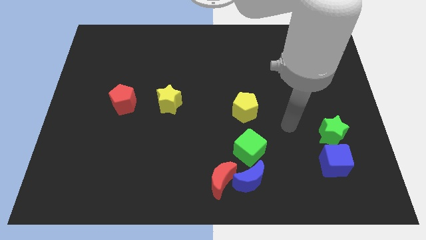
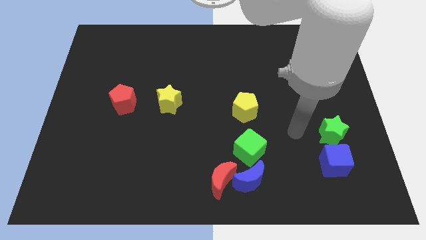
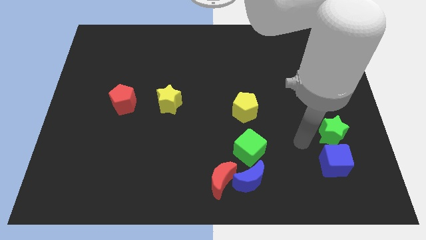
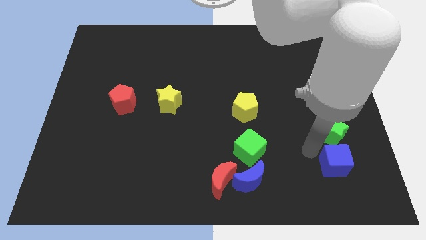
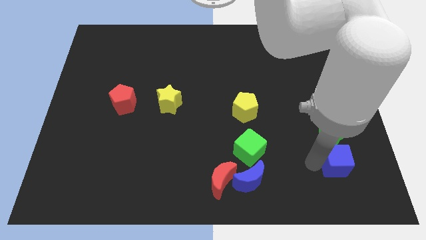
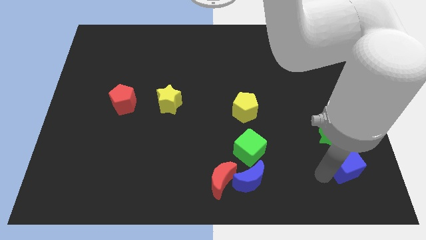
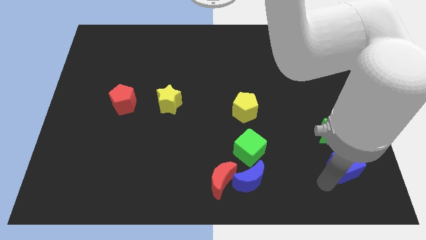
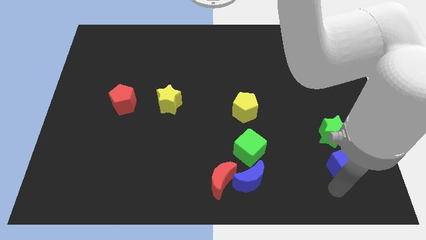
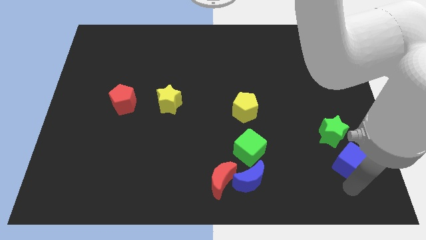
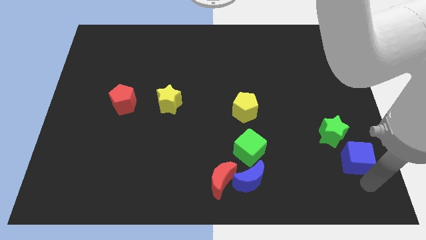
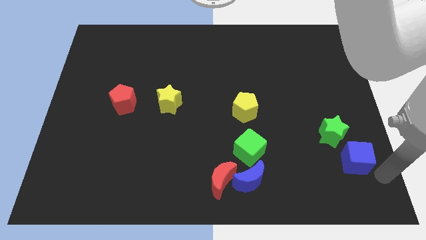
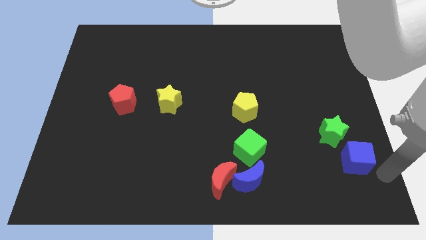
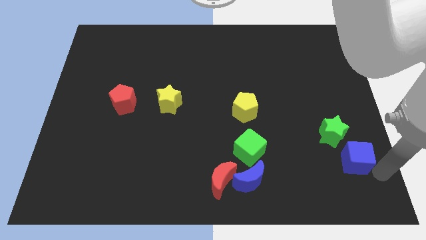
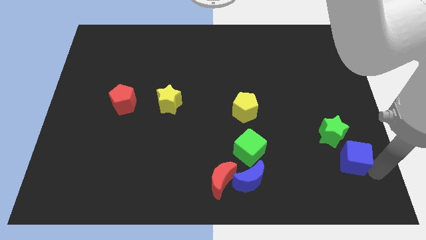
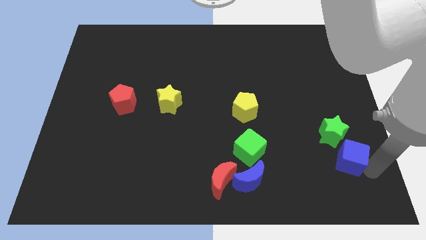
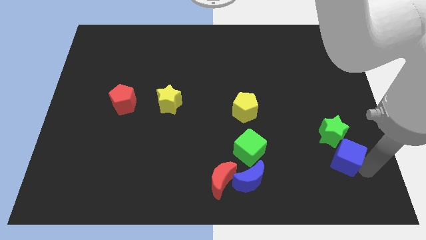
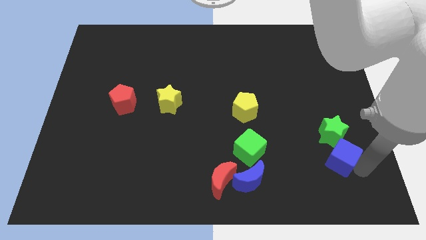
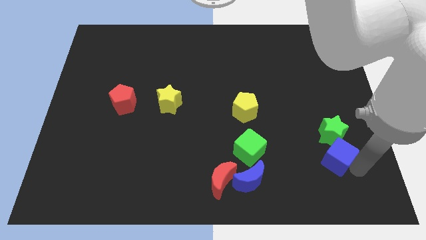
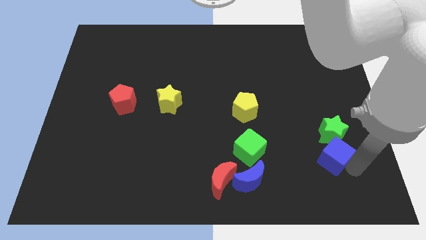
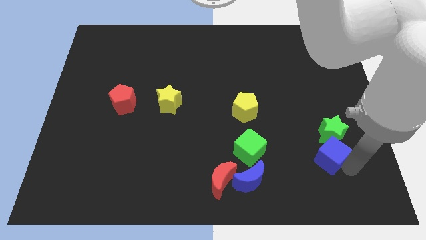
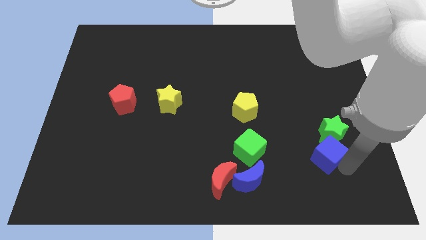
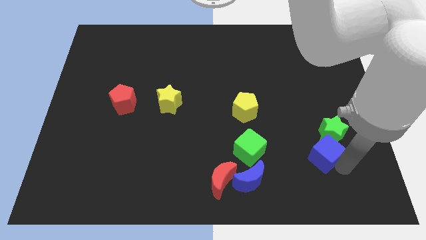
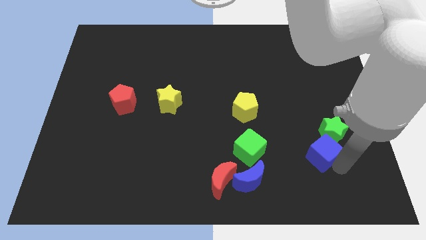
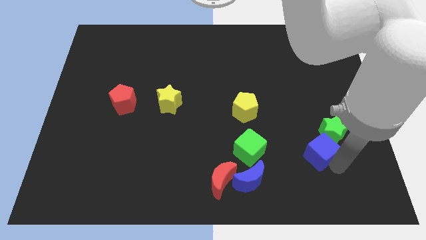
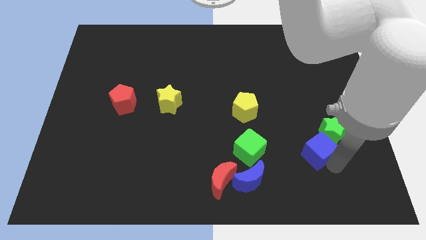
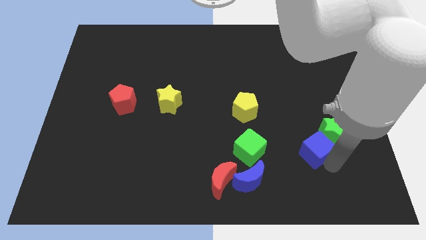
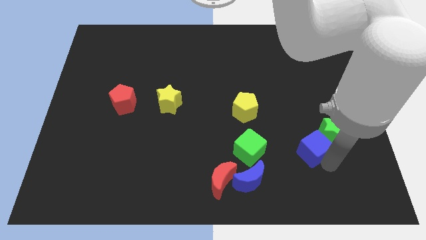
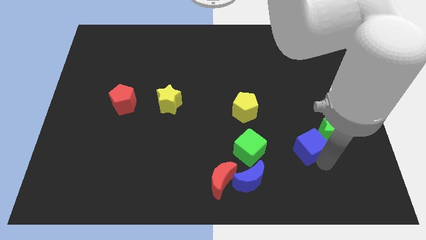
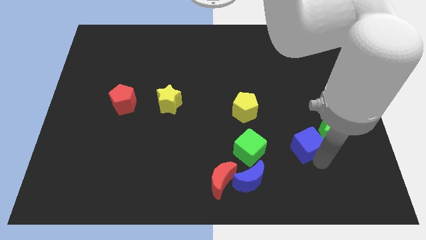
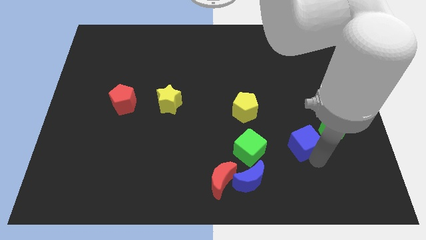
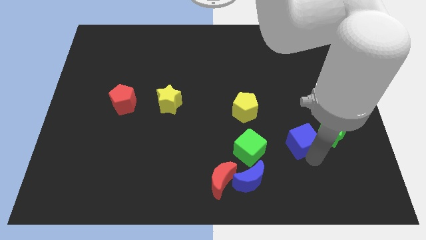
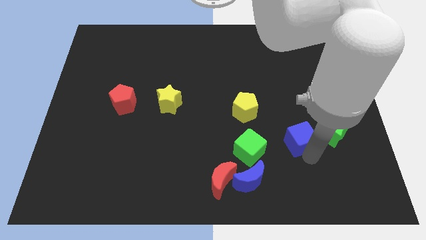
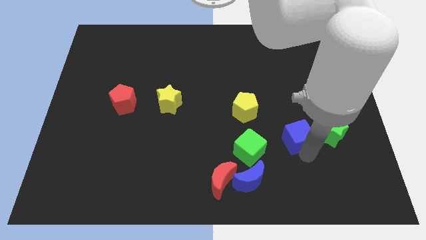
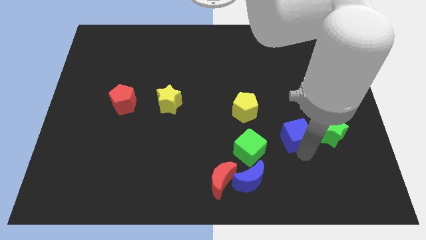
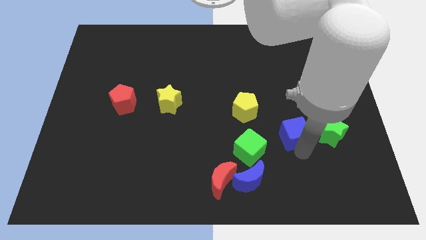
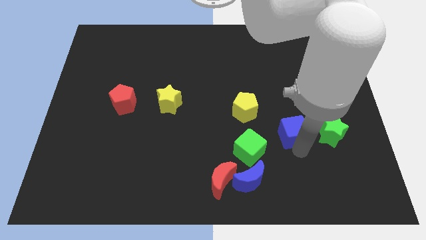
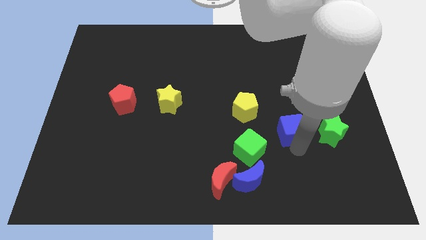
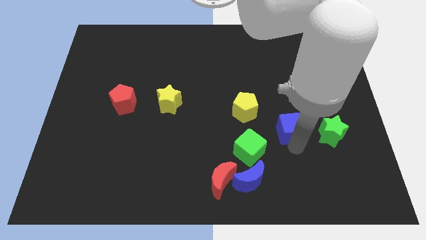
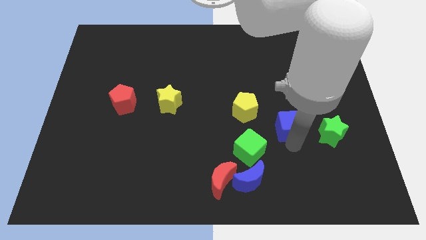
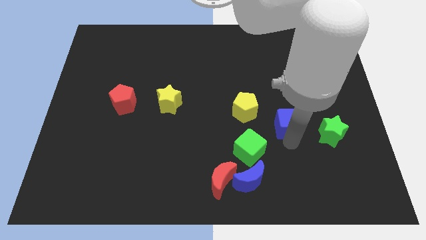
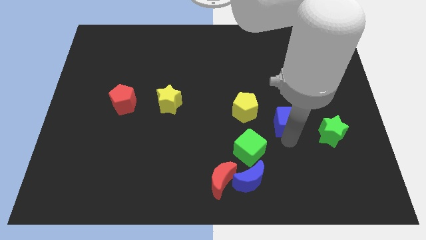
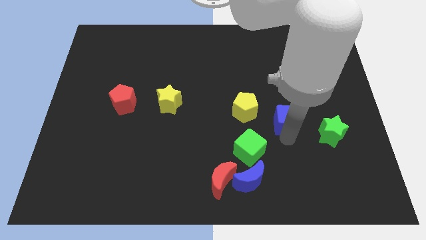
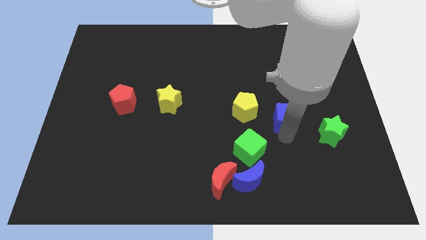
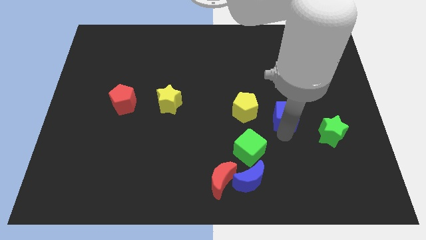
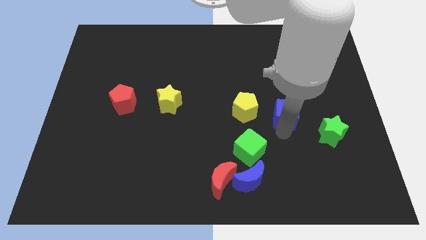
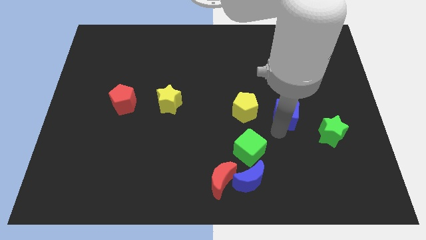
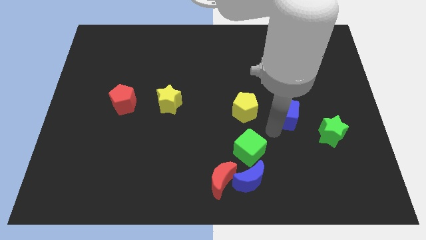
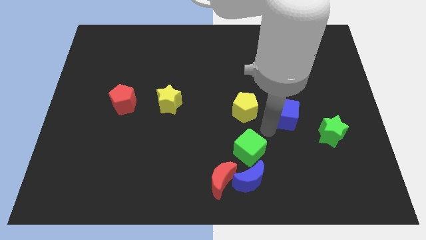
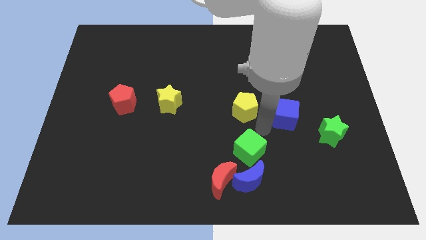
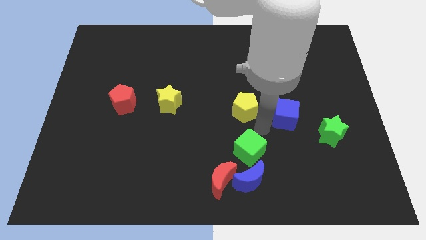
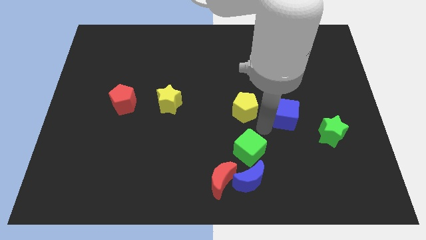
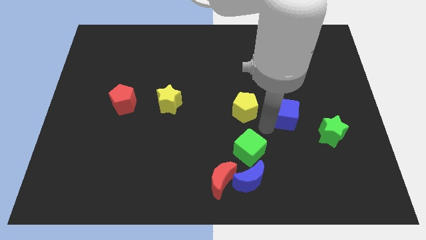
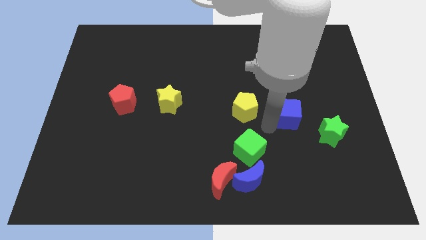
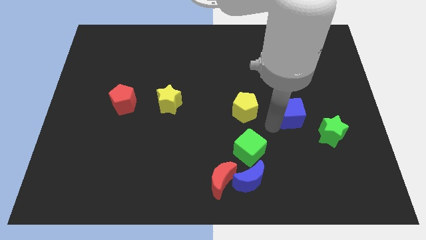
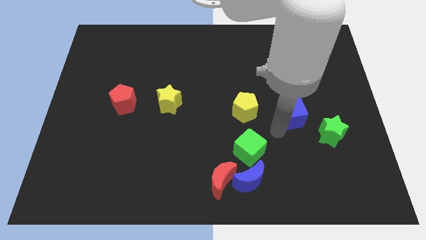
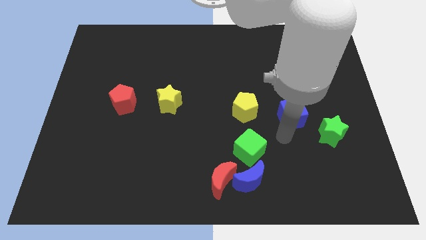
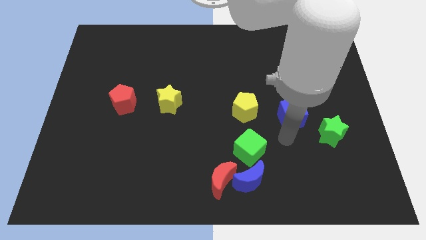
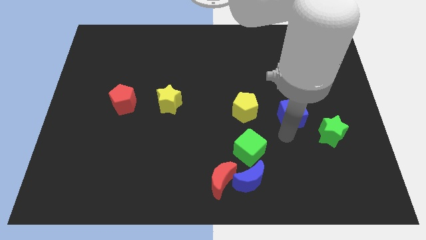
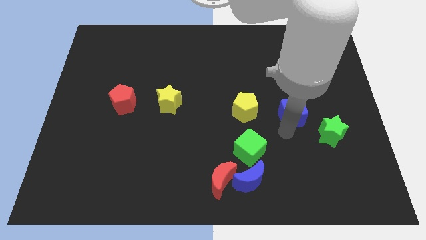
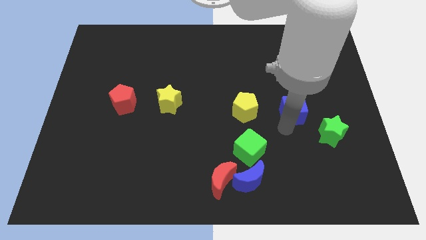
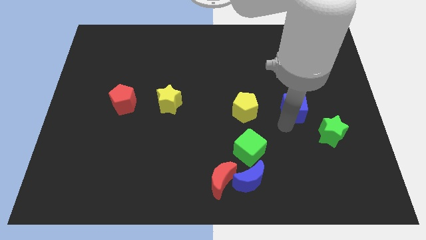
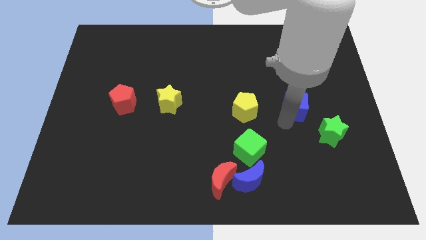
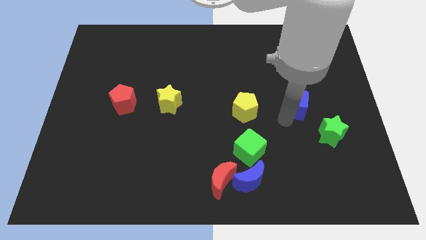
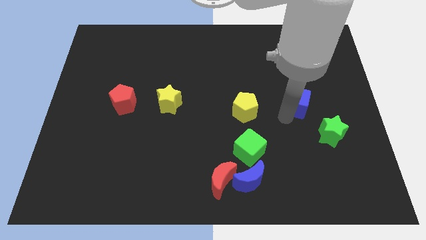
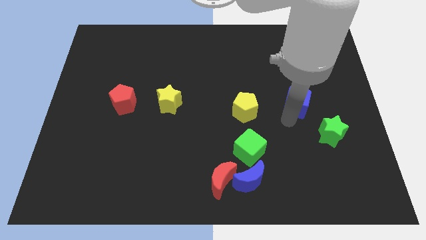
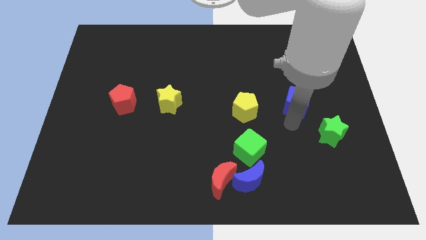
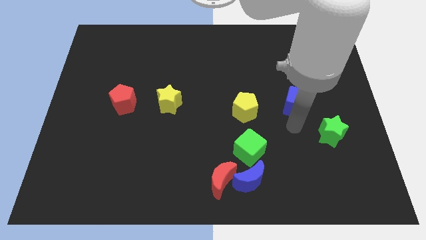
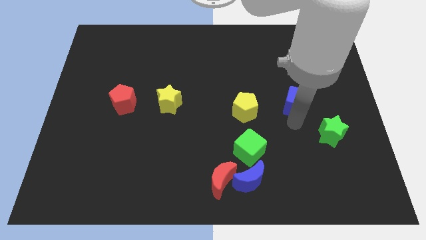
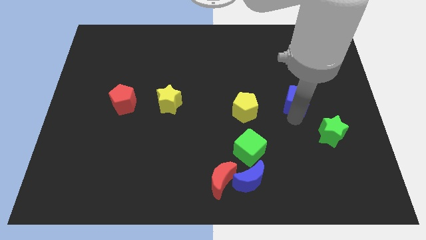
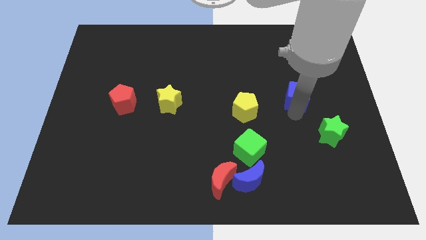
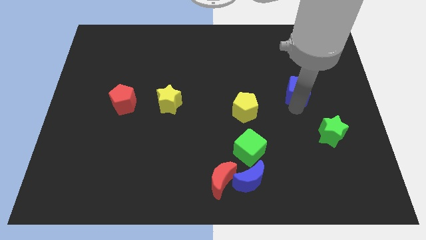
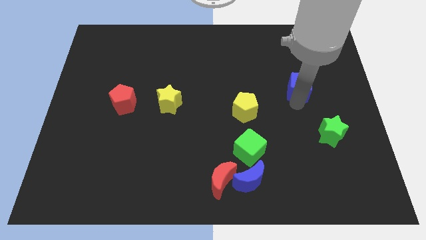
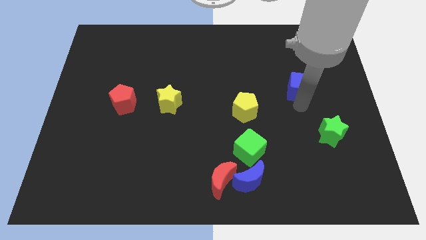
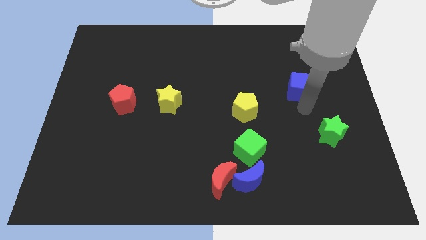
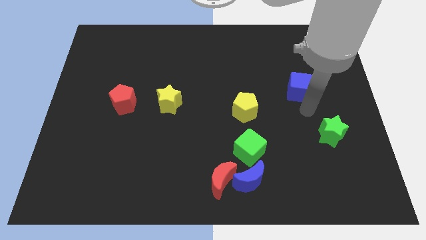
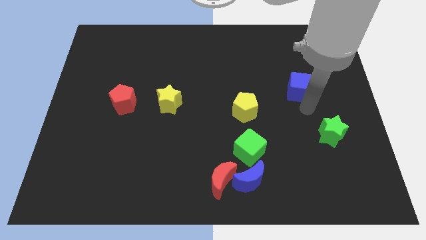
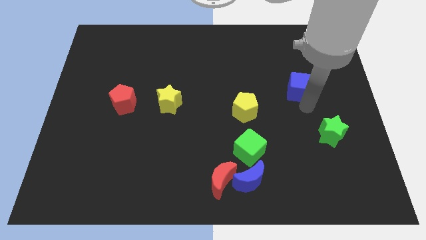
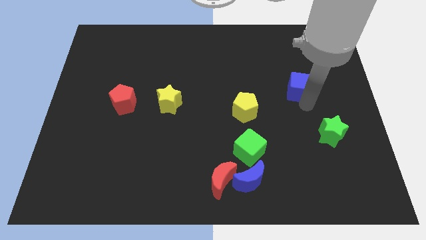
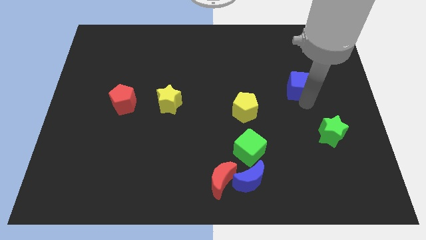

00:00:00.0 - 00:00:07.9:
push the blue cube upwards
